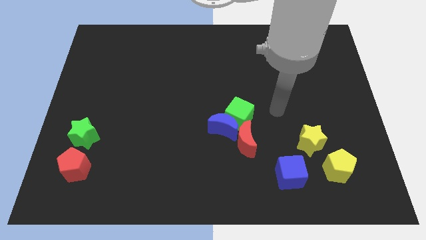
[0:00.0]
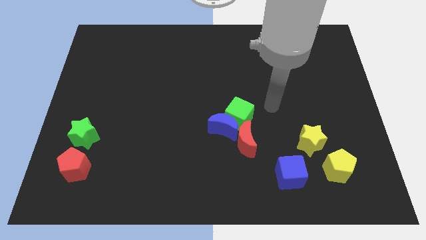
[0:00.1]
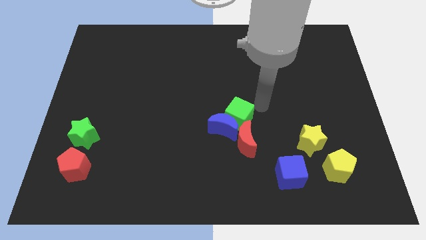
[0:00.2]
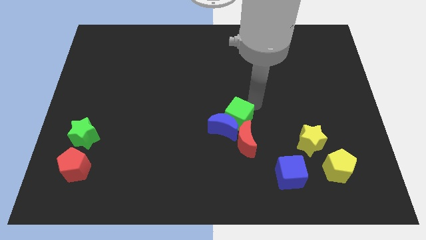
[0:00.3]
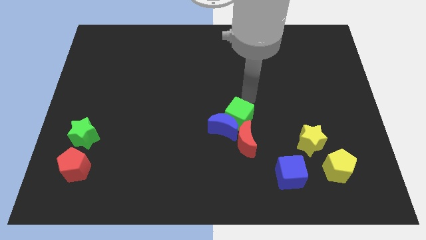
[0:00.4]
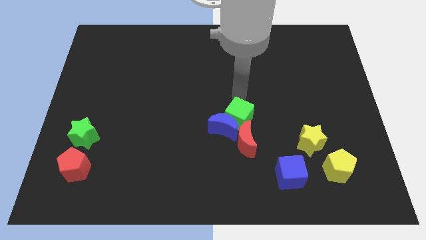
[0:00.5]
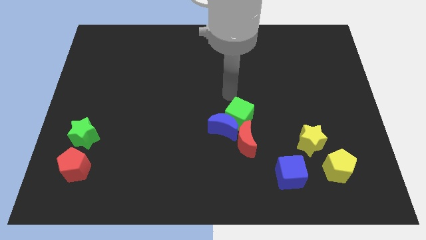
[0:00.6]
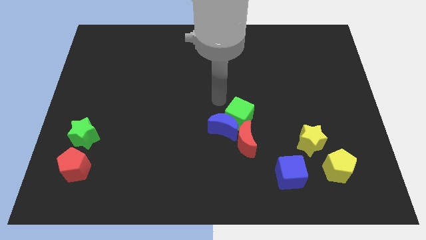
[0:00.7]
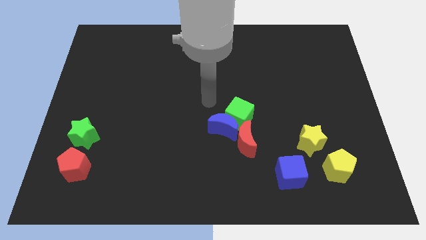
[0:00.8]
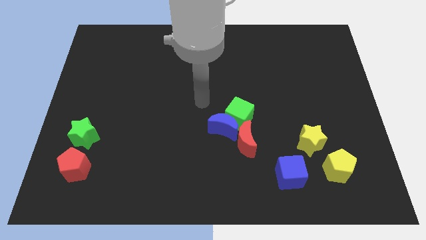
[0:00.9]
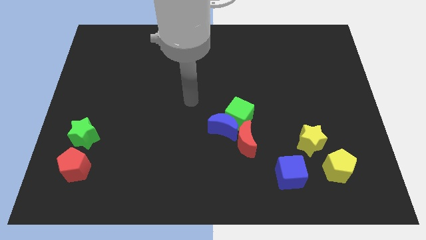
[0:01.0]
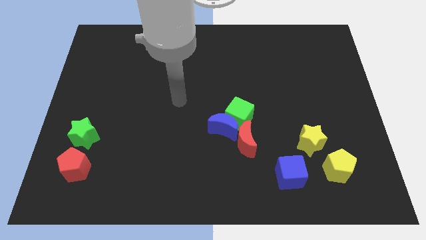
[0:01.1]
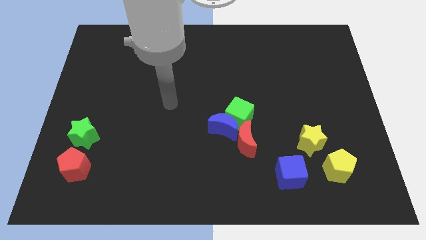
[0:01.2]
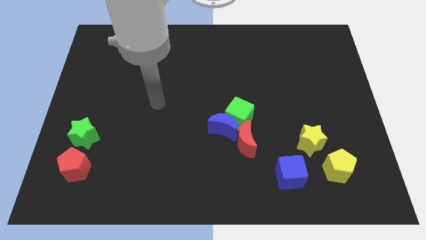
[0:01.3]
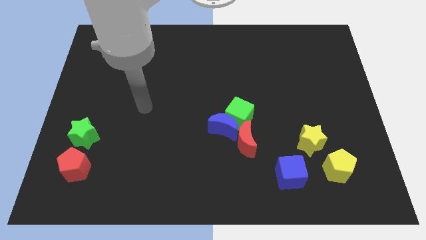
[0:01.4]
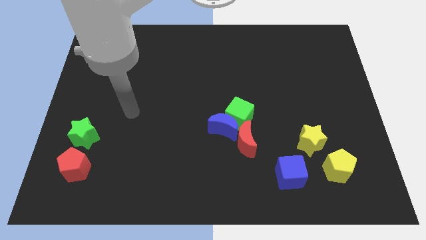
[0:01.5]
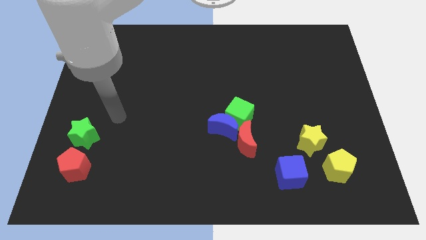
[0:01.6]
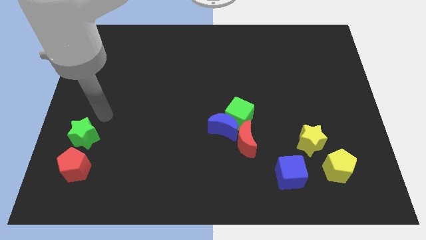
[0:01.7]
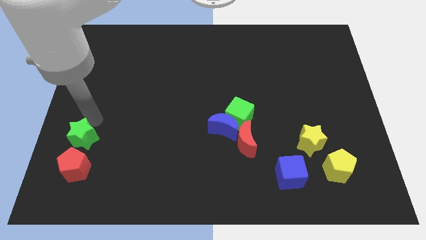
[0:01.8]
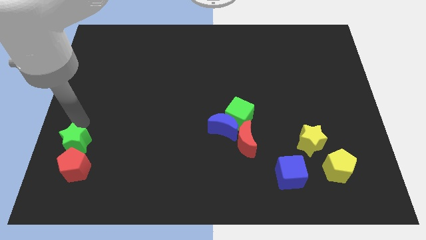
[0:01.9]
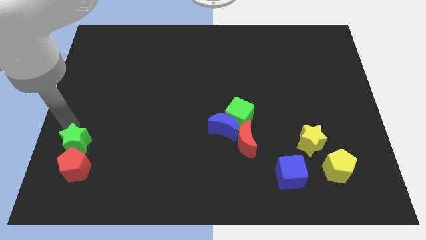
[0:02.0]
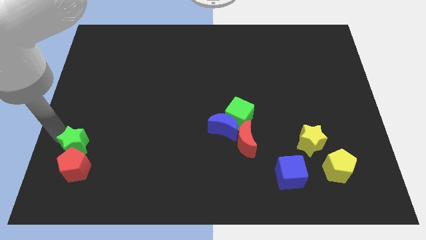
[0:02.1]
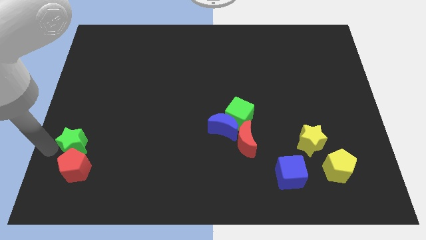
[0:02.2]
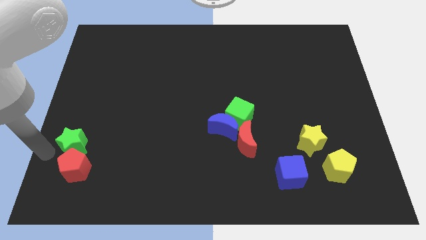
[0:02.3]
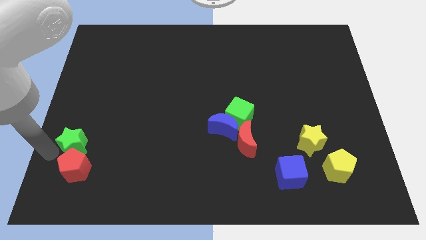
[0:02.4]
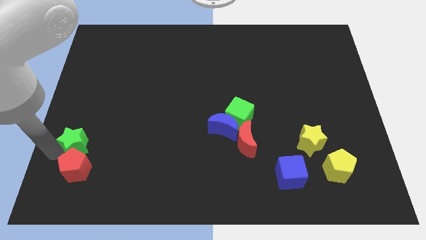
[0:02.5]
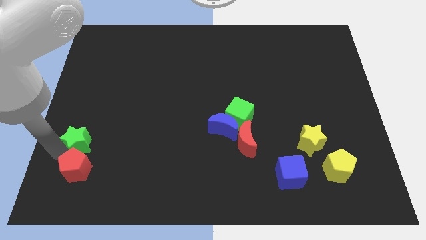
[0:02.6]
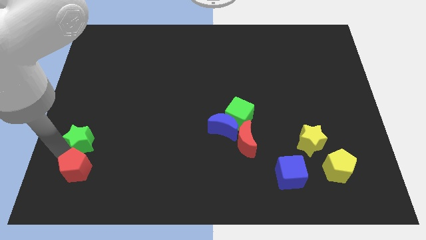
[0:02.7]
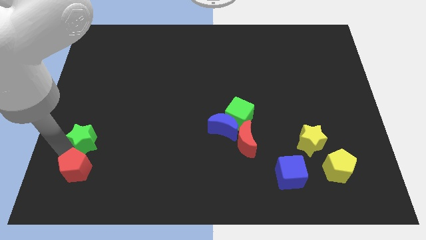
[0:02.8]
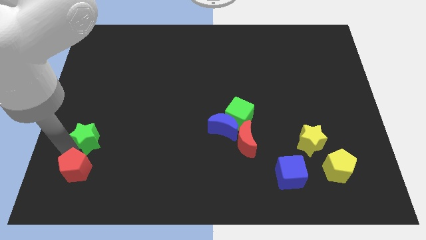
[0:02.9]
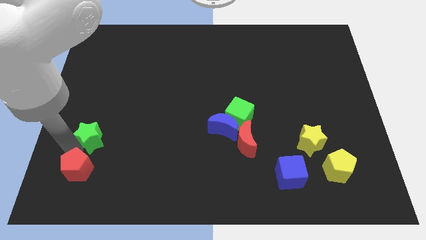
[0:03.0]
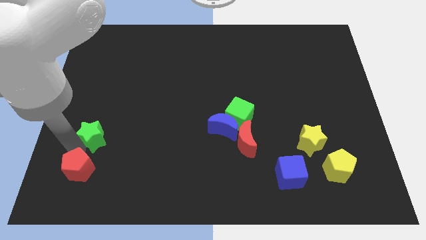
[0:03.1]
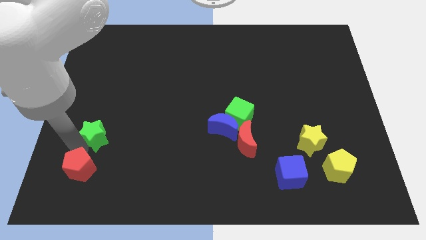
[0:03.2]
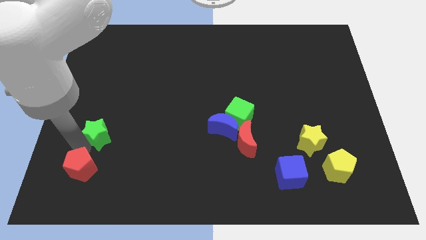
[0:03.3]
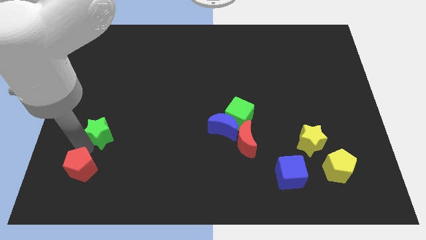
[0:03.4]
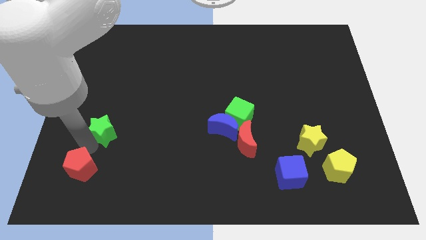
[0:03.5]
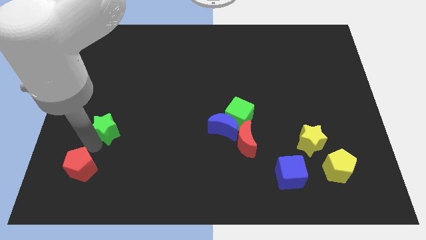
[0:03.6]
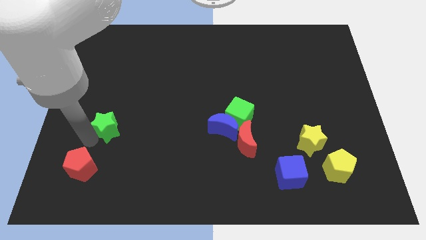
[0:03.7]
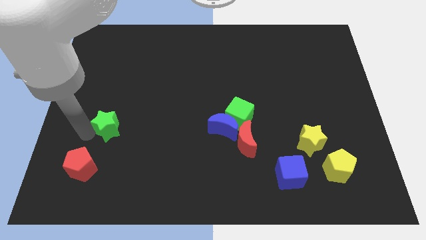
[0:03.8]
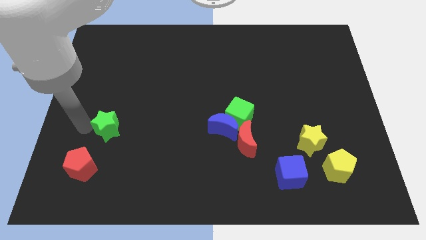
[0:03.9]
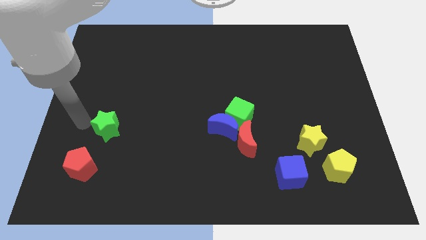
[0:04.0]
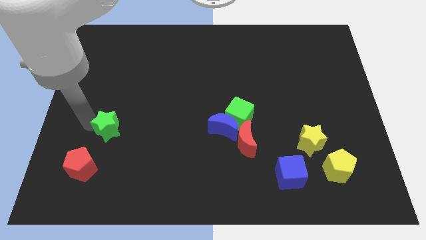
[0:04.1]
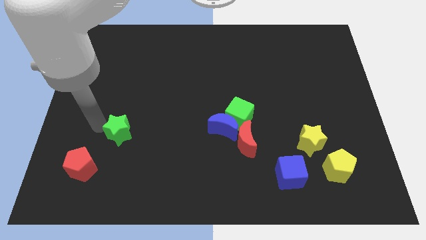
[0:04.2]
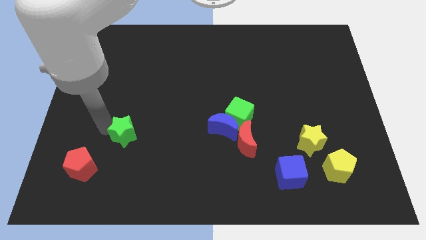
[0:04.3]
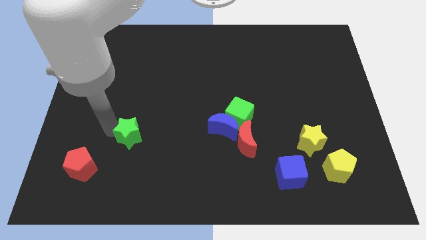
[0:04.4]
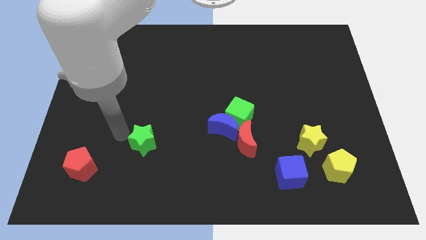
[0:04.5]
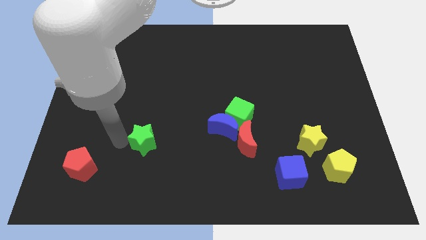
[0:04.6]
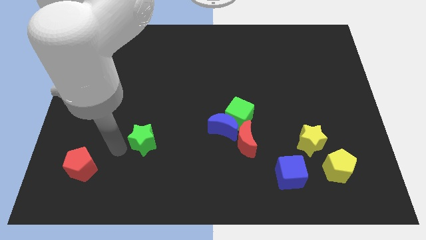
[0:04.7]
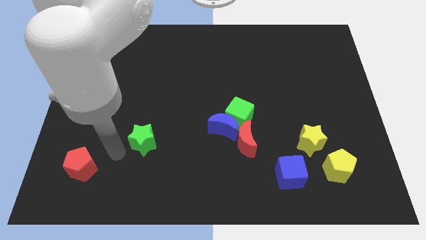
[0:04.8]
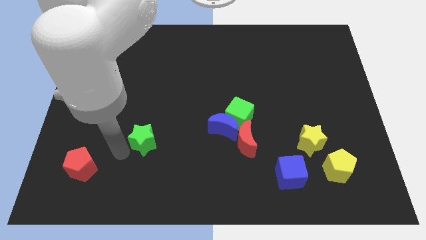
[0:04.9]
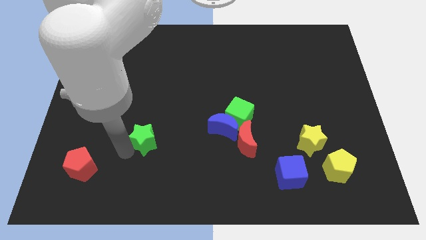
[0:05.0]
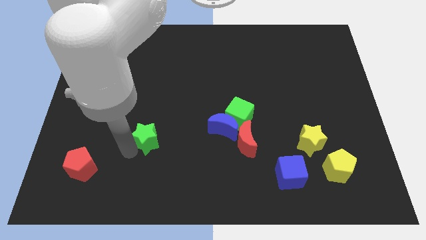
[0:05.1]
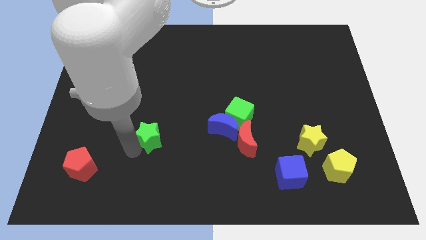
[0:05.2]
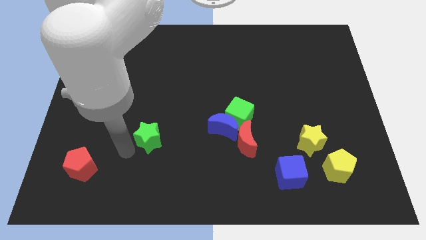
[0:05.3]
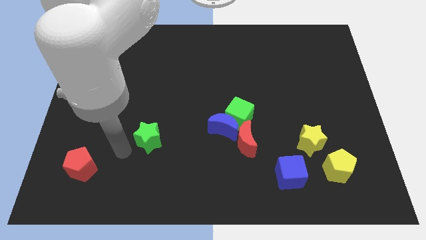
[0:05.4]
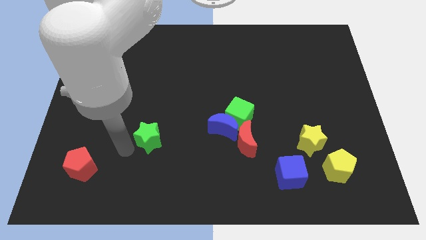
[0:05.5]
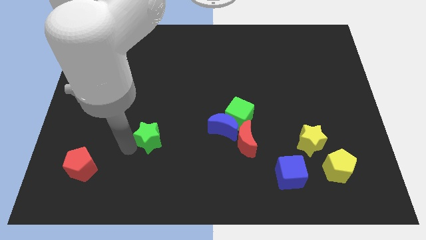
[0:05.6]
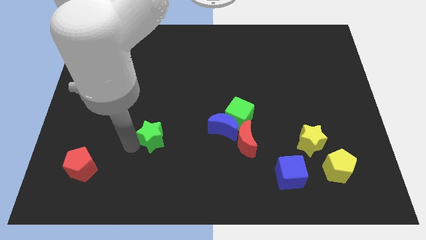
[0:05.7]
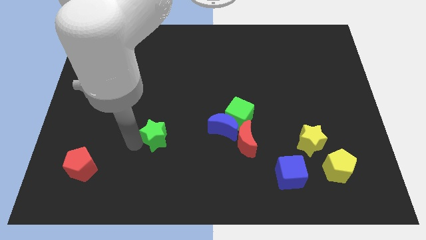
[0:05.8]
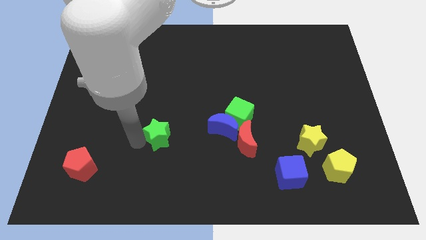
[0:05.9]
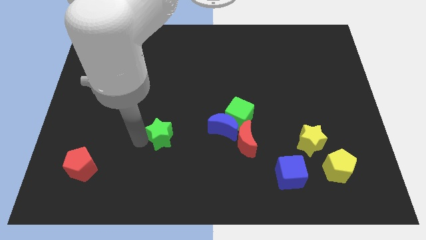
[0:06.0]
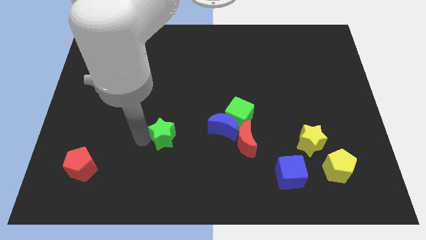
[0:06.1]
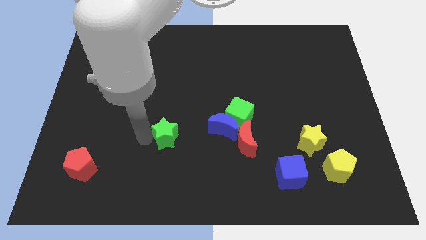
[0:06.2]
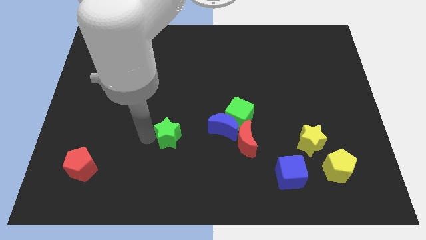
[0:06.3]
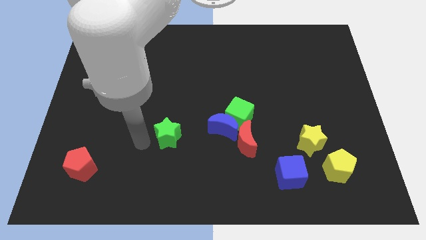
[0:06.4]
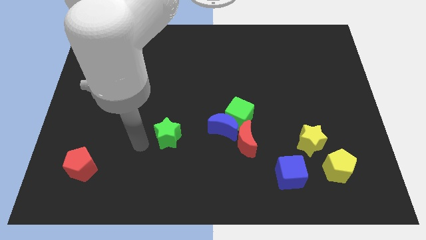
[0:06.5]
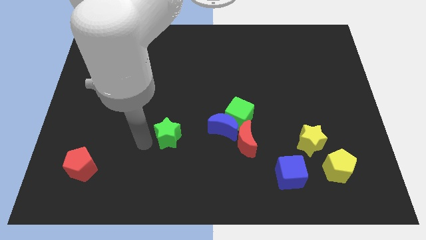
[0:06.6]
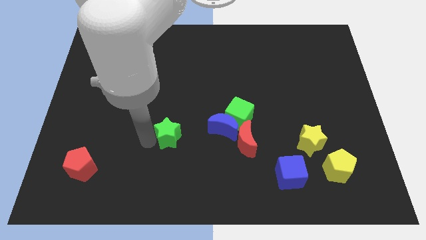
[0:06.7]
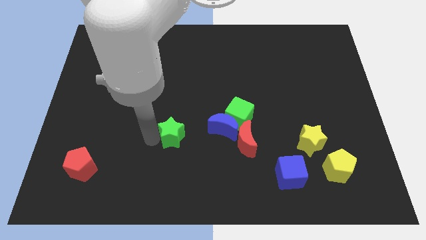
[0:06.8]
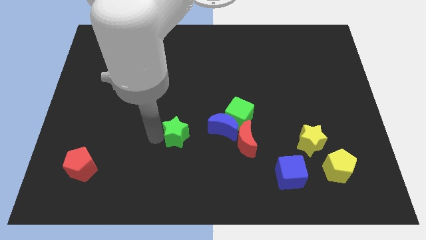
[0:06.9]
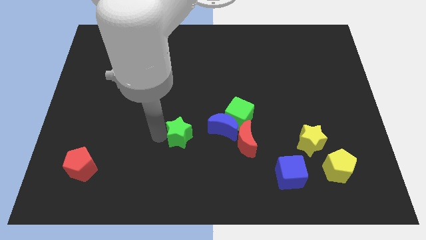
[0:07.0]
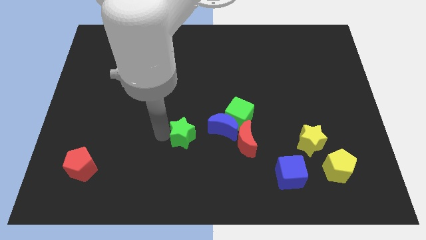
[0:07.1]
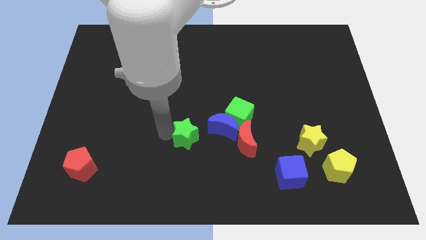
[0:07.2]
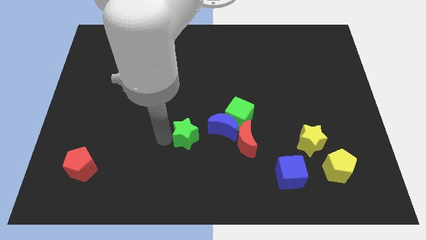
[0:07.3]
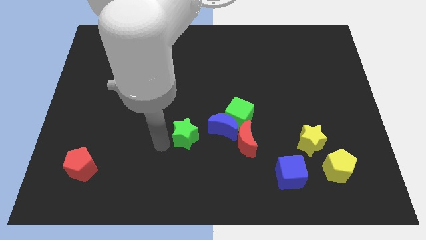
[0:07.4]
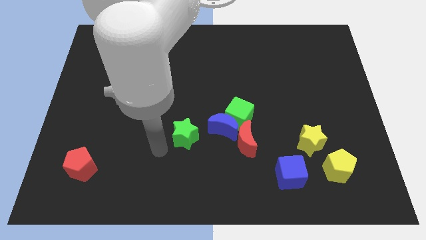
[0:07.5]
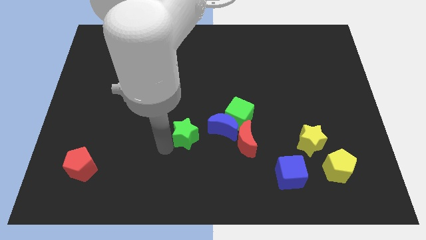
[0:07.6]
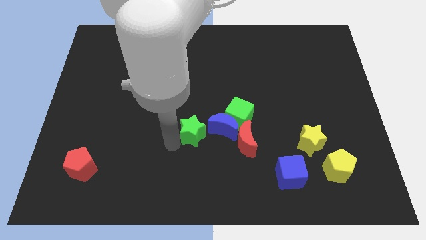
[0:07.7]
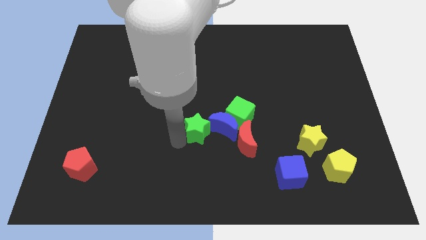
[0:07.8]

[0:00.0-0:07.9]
put the green star to the blue moon
